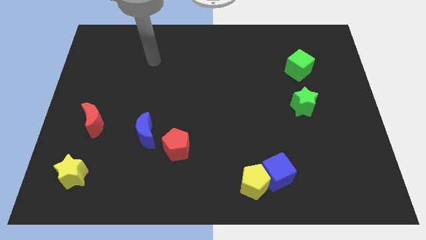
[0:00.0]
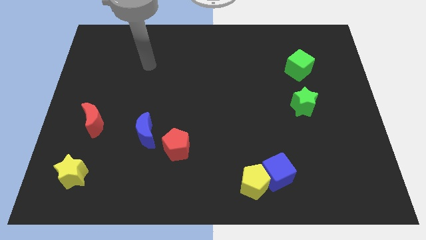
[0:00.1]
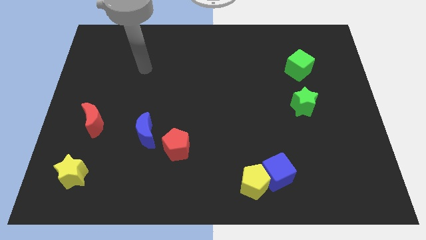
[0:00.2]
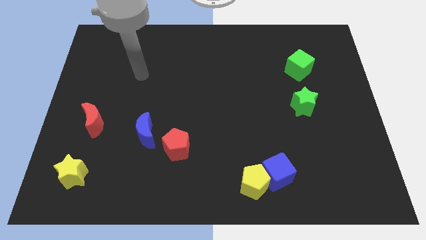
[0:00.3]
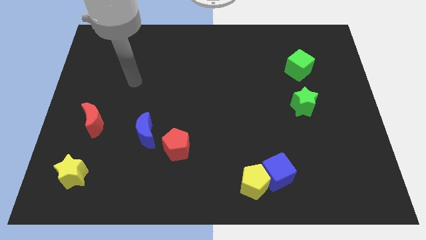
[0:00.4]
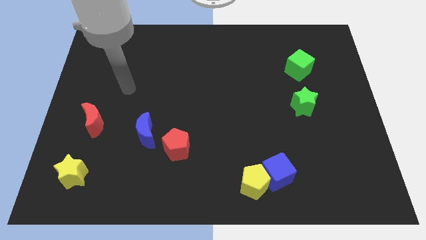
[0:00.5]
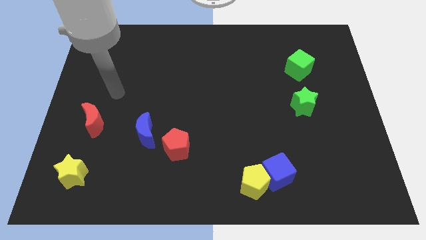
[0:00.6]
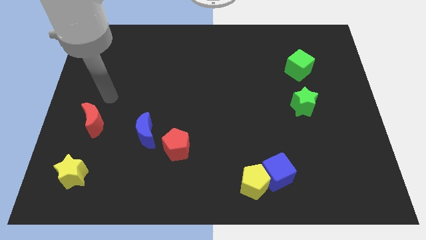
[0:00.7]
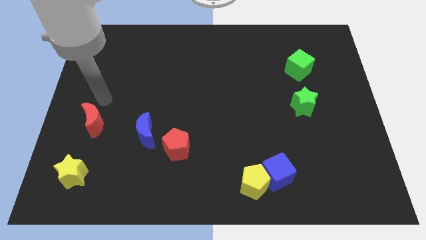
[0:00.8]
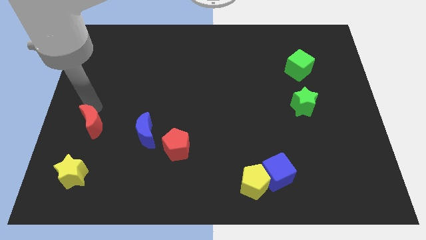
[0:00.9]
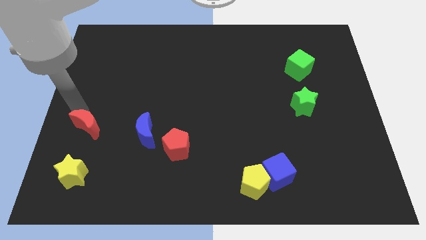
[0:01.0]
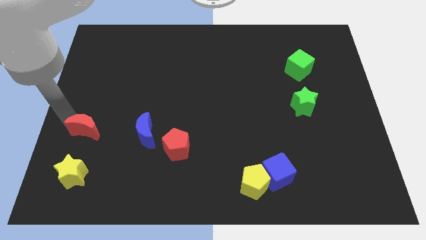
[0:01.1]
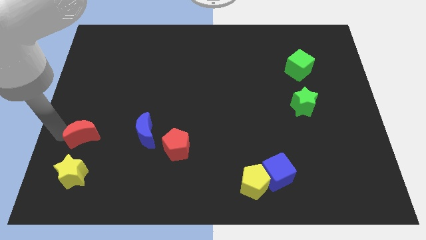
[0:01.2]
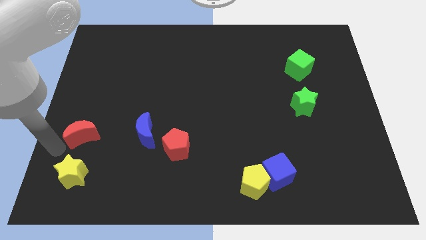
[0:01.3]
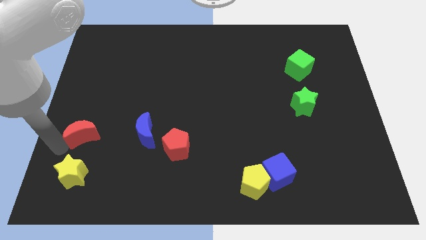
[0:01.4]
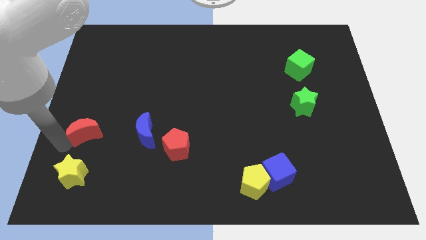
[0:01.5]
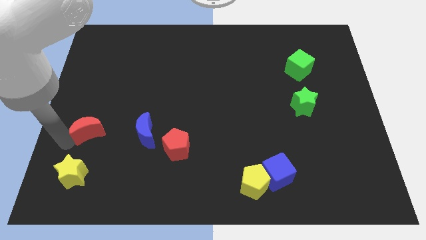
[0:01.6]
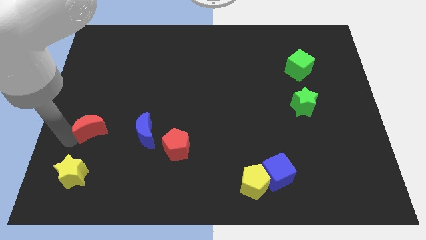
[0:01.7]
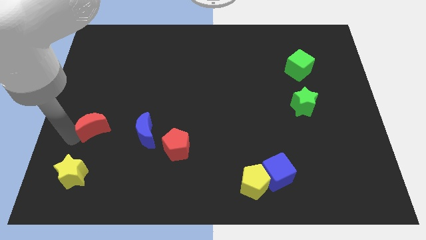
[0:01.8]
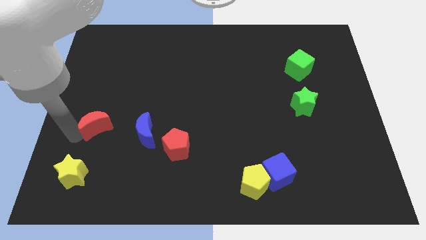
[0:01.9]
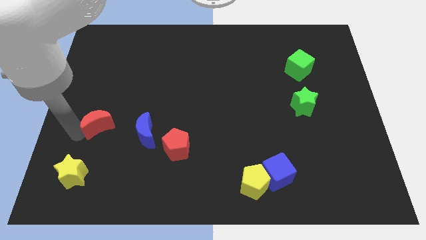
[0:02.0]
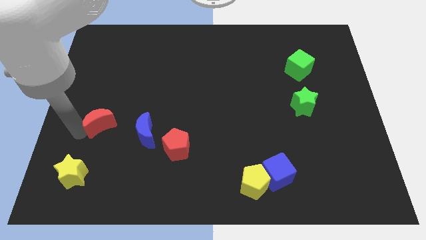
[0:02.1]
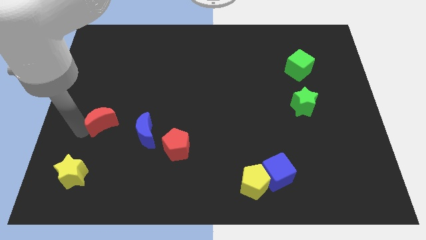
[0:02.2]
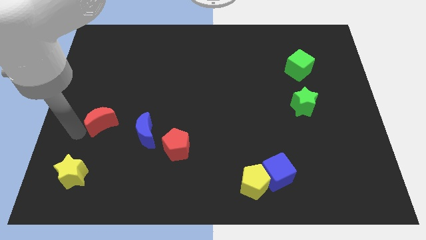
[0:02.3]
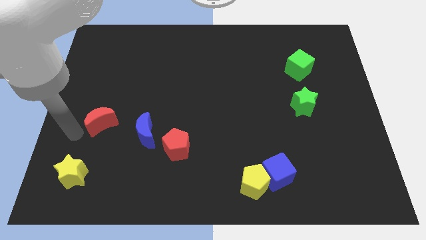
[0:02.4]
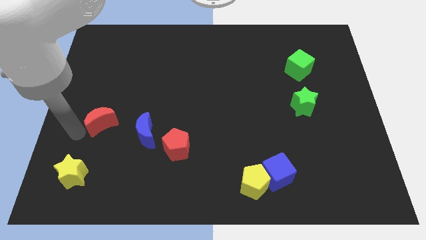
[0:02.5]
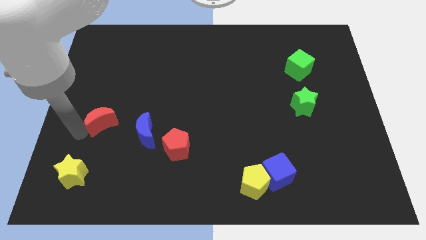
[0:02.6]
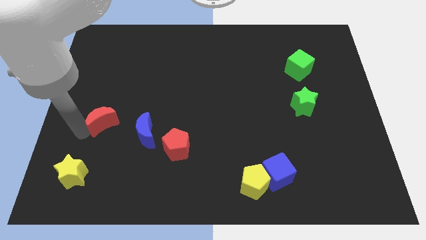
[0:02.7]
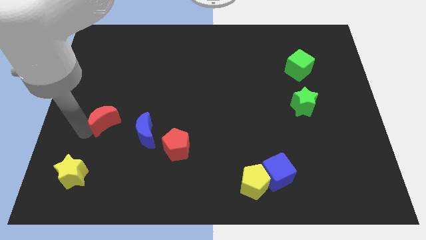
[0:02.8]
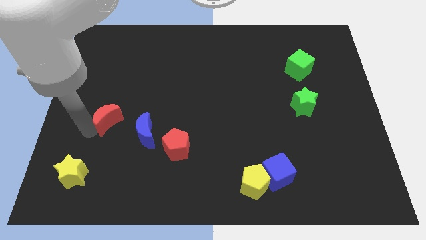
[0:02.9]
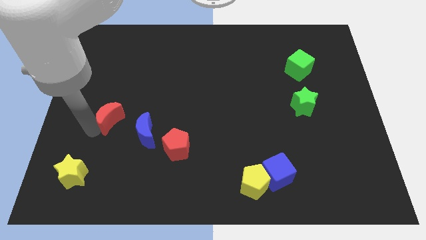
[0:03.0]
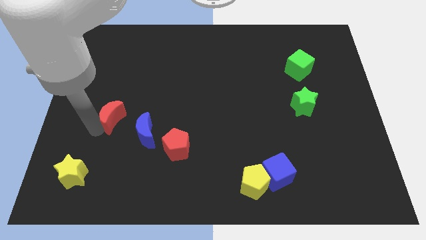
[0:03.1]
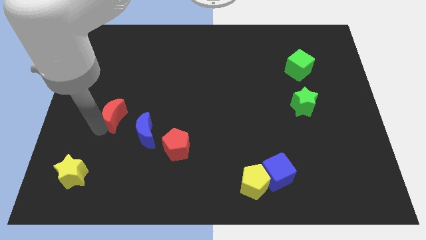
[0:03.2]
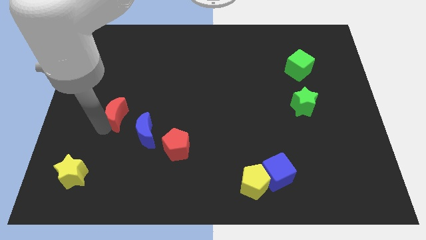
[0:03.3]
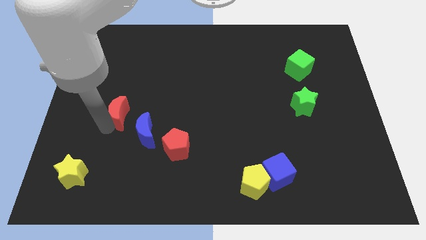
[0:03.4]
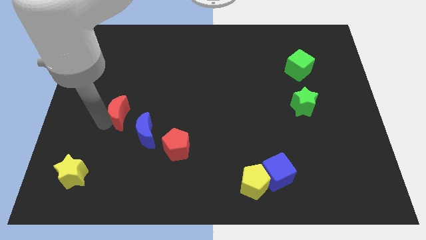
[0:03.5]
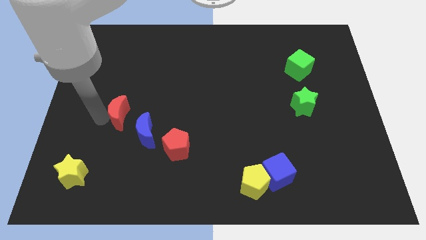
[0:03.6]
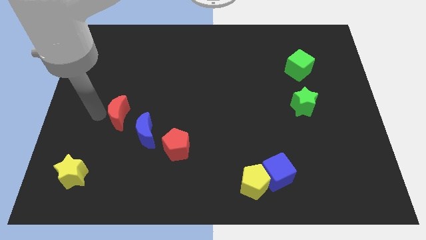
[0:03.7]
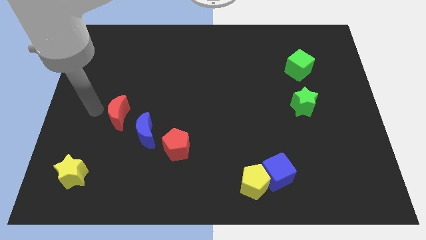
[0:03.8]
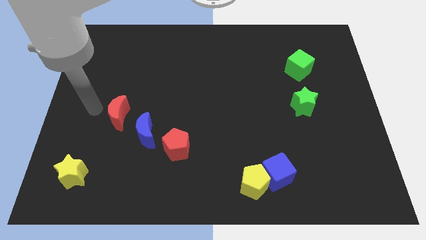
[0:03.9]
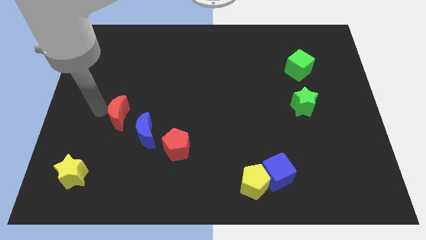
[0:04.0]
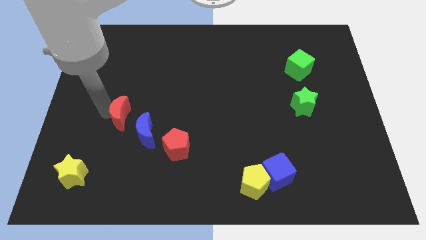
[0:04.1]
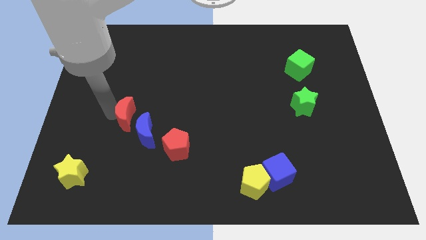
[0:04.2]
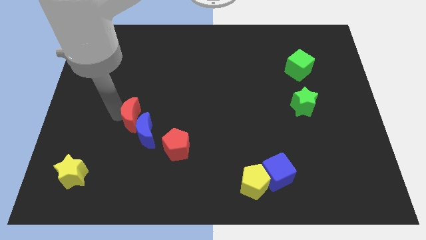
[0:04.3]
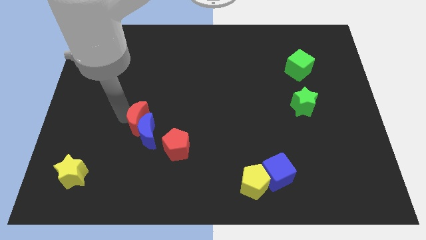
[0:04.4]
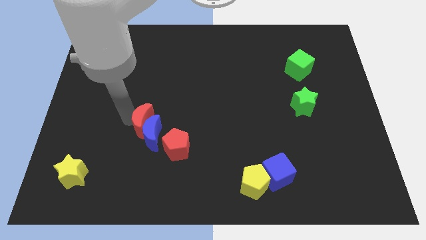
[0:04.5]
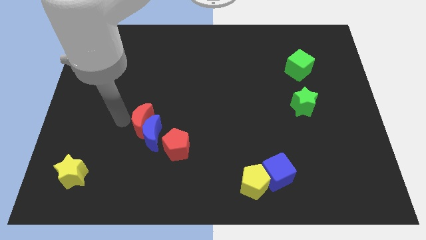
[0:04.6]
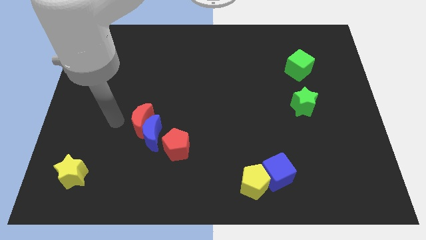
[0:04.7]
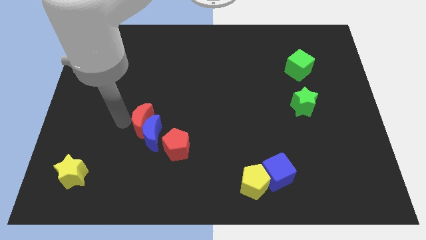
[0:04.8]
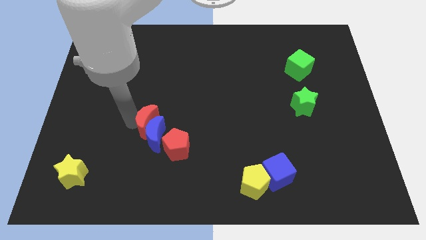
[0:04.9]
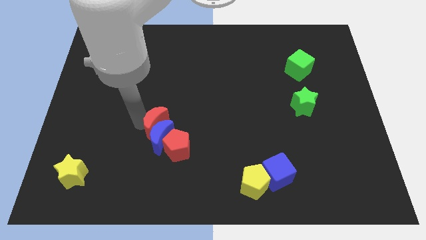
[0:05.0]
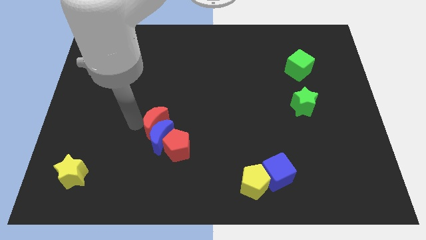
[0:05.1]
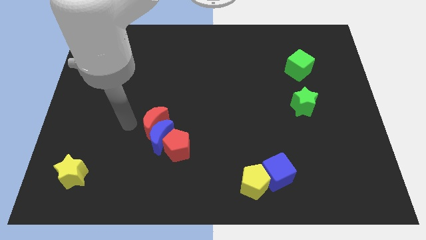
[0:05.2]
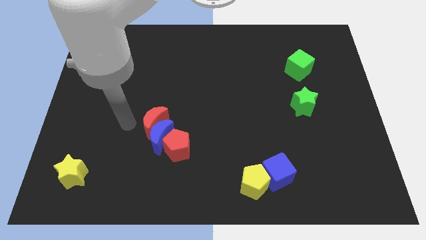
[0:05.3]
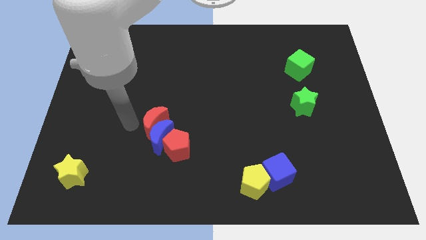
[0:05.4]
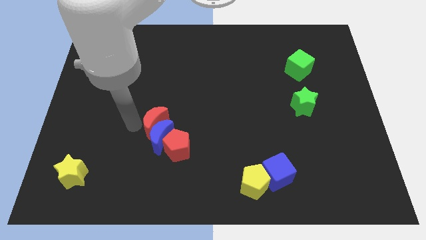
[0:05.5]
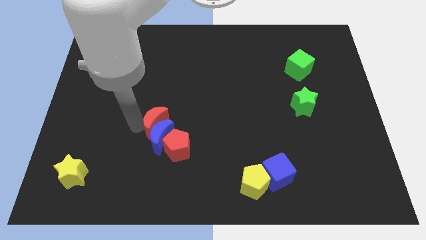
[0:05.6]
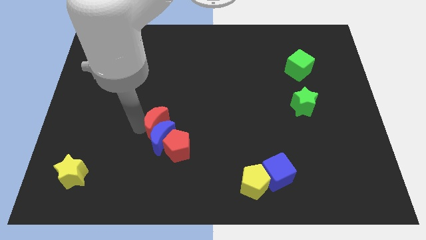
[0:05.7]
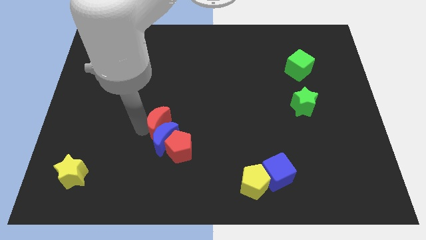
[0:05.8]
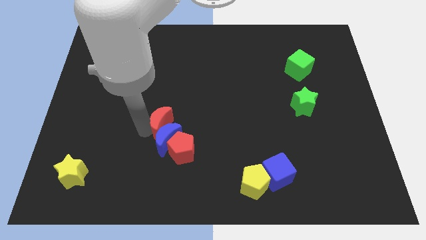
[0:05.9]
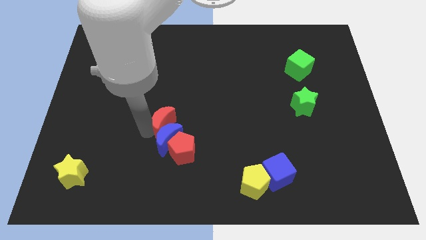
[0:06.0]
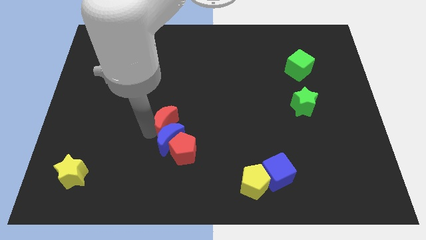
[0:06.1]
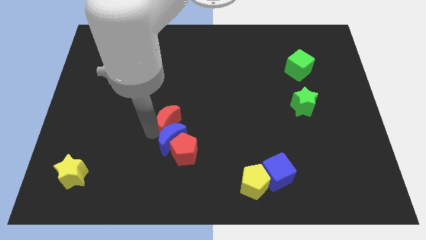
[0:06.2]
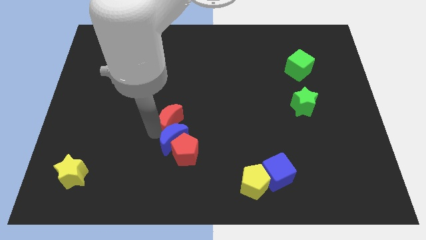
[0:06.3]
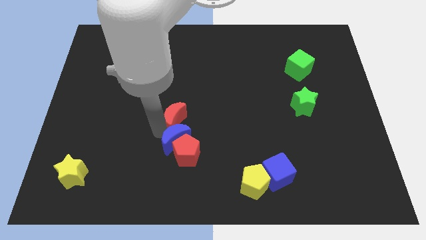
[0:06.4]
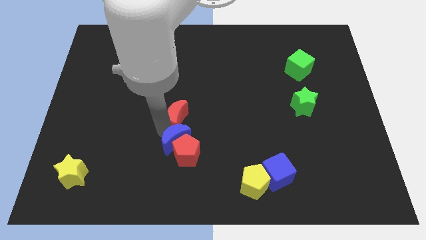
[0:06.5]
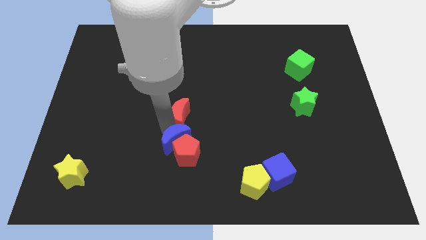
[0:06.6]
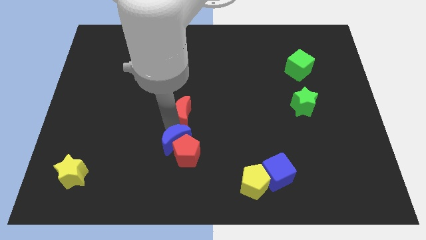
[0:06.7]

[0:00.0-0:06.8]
move the red moon right

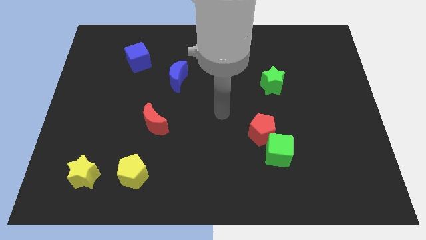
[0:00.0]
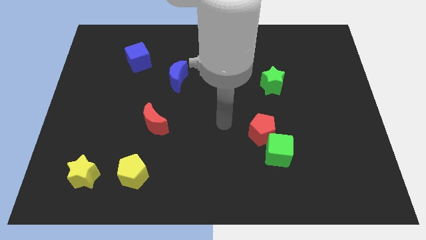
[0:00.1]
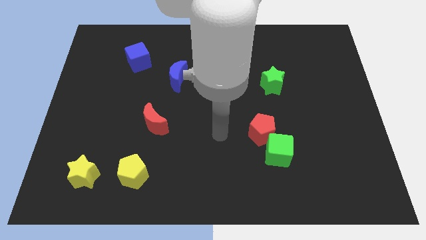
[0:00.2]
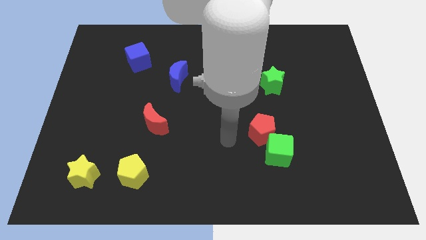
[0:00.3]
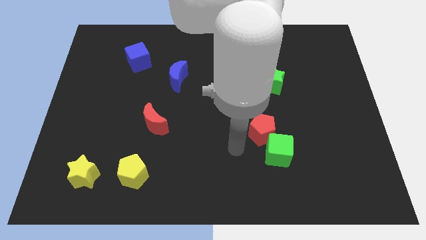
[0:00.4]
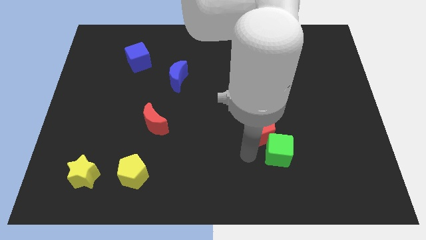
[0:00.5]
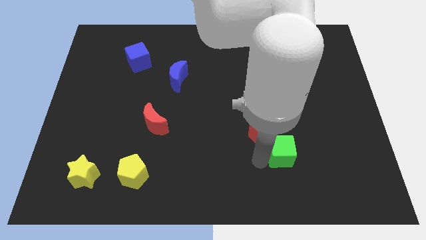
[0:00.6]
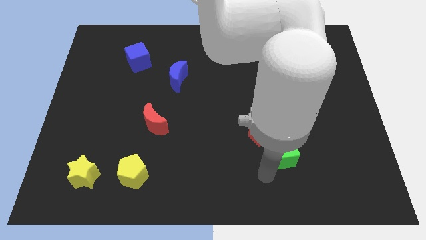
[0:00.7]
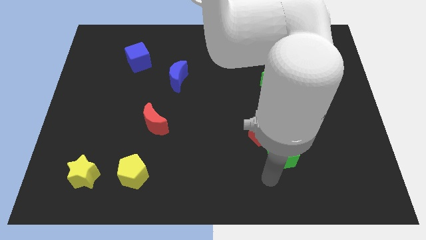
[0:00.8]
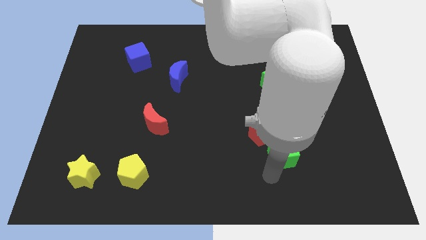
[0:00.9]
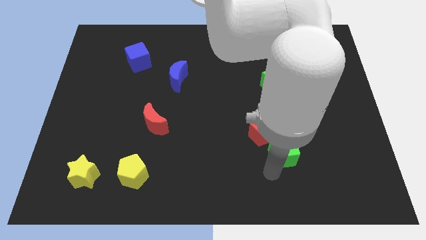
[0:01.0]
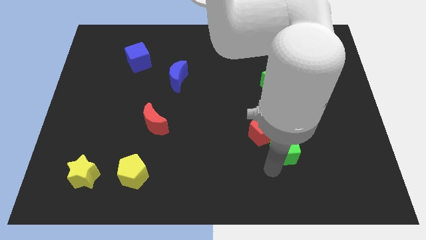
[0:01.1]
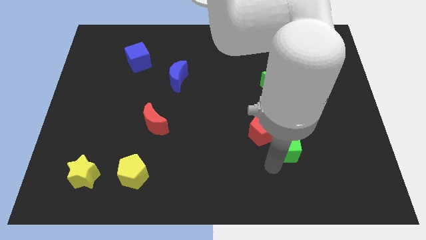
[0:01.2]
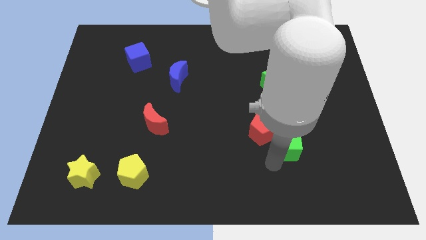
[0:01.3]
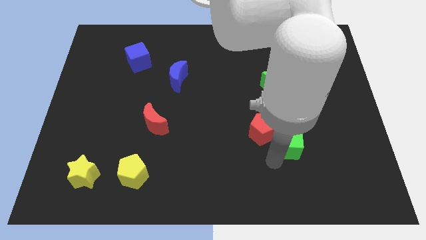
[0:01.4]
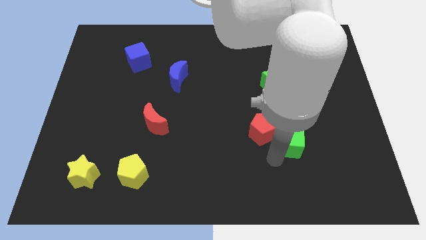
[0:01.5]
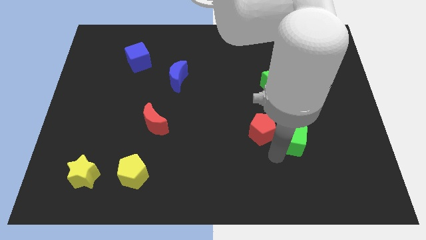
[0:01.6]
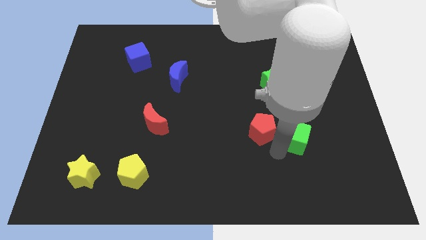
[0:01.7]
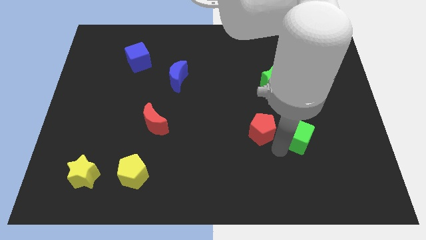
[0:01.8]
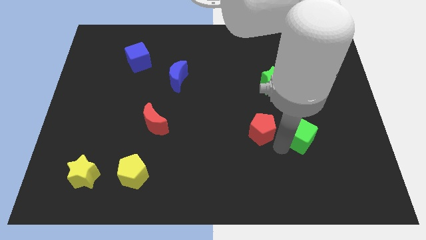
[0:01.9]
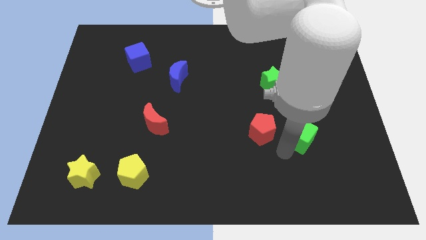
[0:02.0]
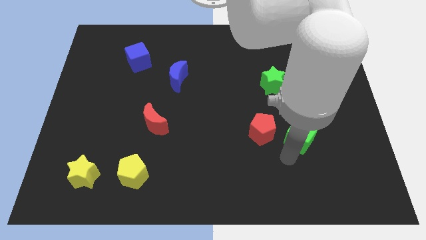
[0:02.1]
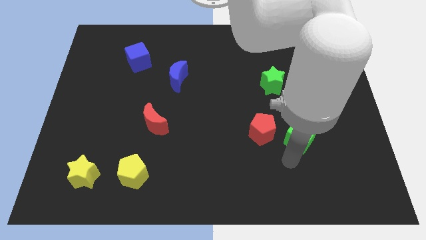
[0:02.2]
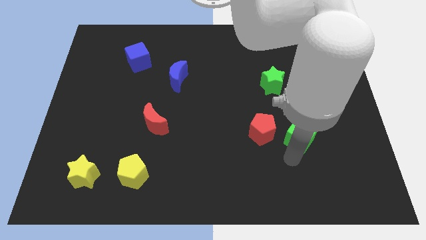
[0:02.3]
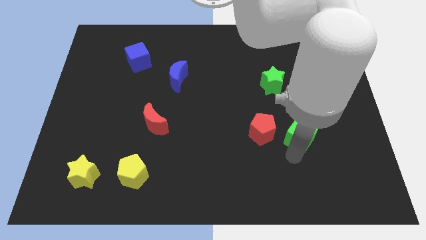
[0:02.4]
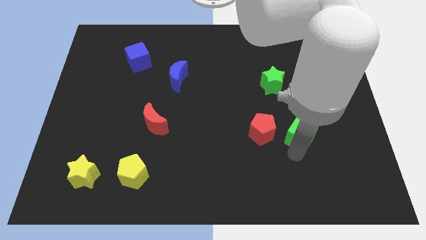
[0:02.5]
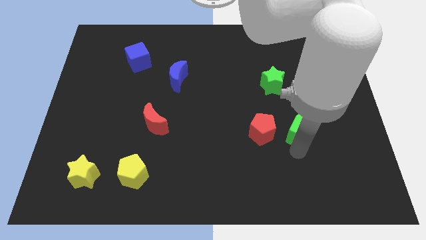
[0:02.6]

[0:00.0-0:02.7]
move the green cube a bit diagonally up and to the right
